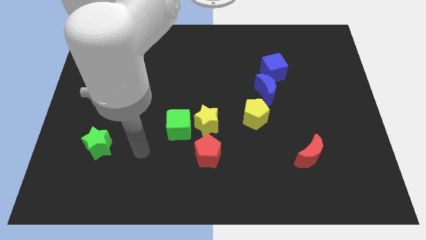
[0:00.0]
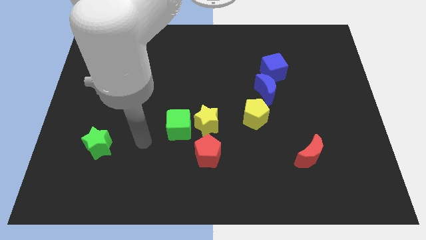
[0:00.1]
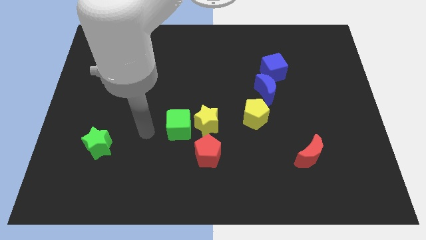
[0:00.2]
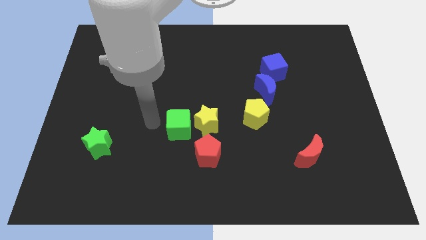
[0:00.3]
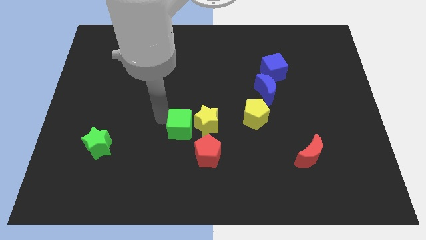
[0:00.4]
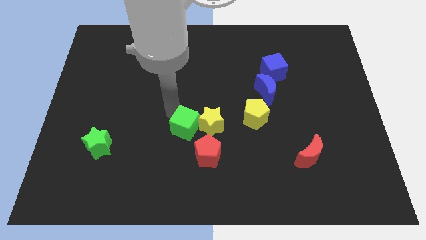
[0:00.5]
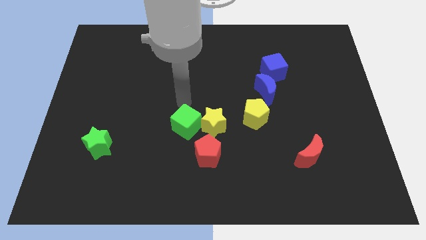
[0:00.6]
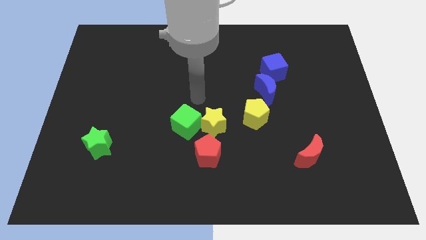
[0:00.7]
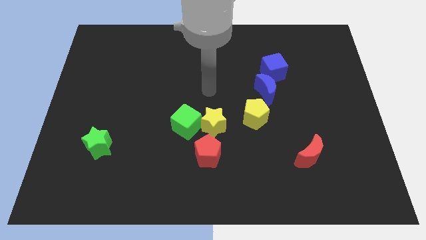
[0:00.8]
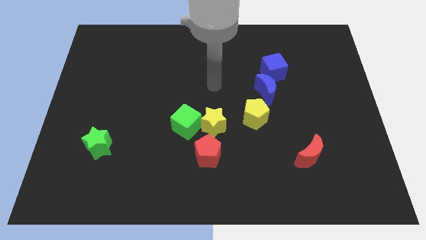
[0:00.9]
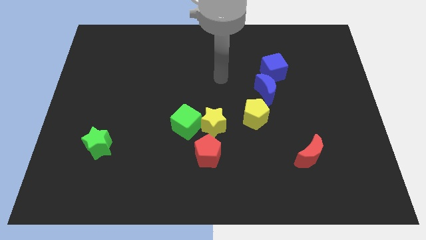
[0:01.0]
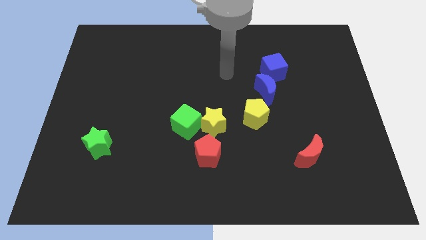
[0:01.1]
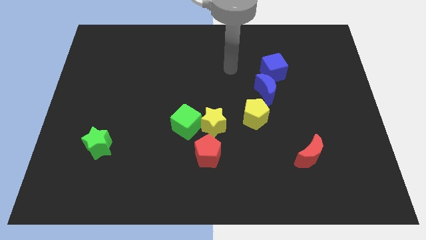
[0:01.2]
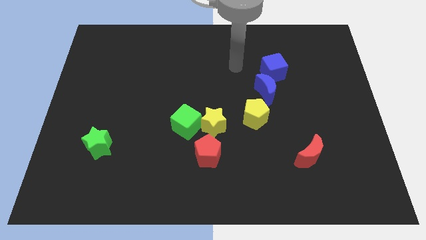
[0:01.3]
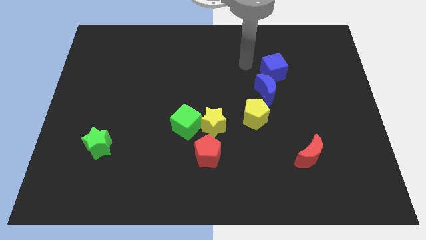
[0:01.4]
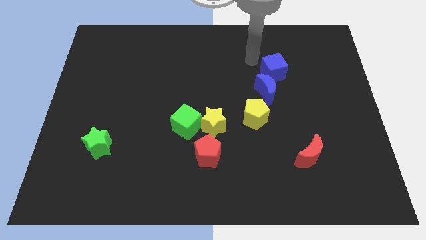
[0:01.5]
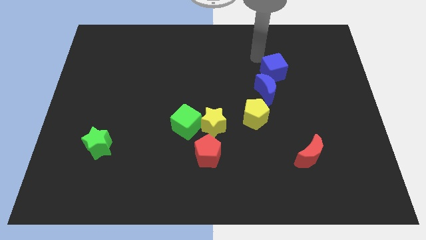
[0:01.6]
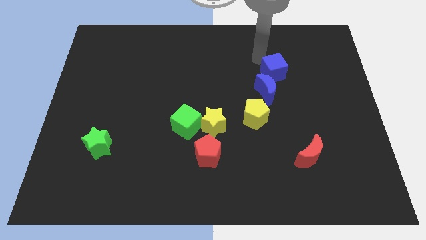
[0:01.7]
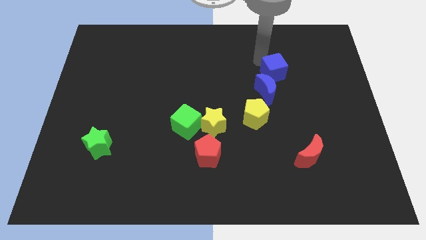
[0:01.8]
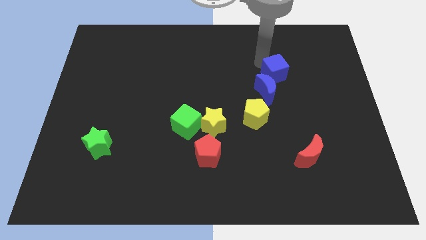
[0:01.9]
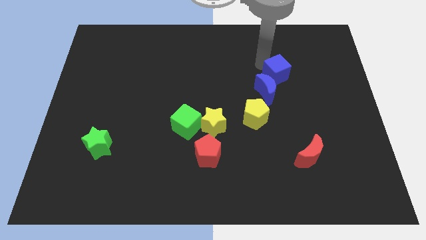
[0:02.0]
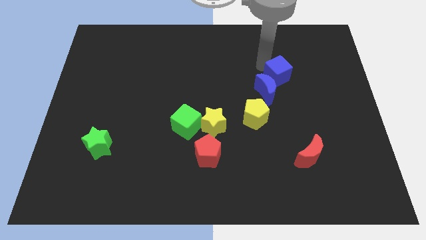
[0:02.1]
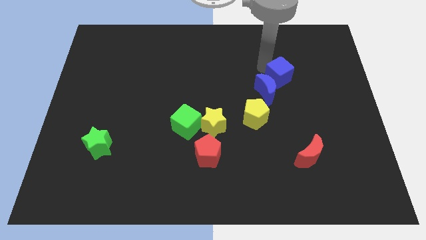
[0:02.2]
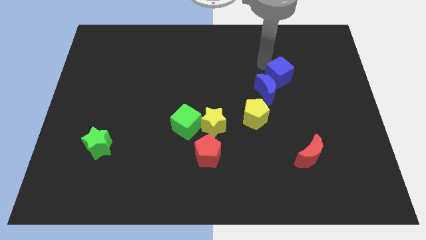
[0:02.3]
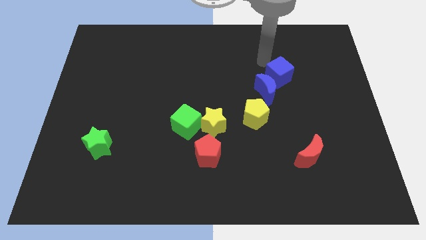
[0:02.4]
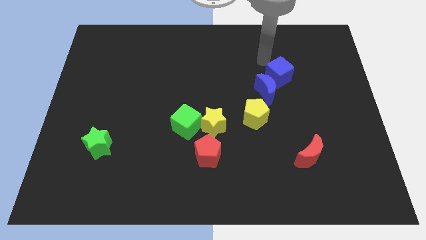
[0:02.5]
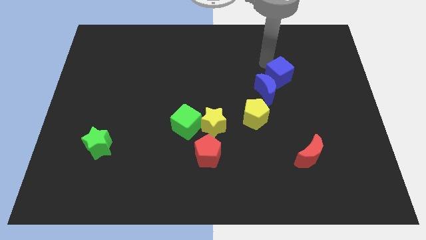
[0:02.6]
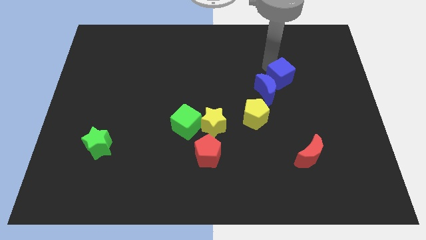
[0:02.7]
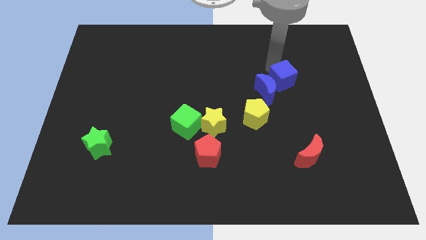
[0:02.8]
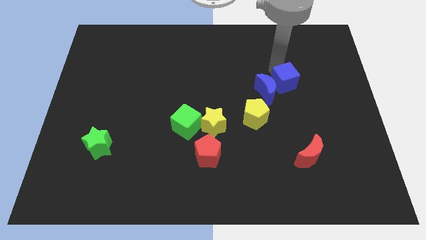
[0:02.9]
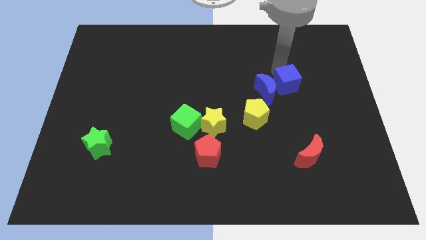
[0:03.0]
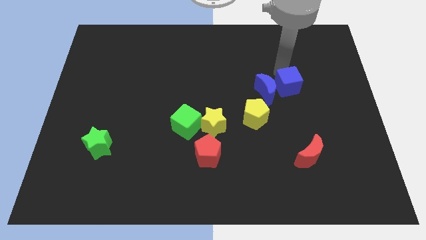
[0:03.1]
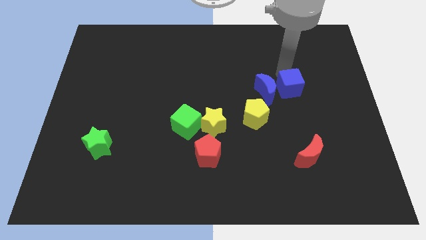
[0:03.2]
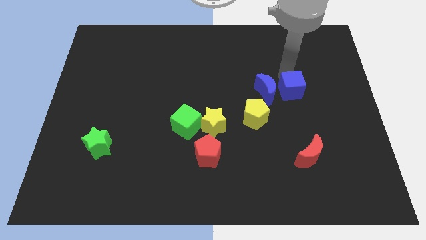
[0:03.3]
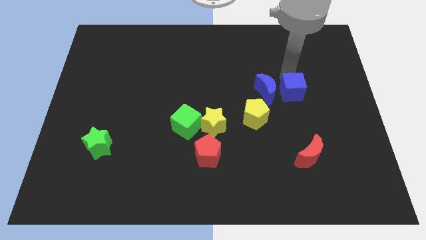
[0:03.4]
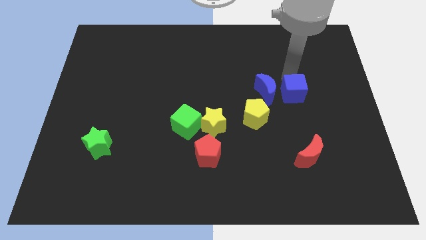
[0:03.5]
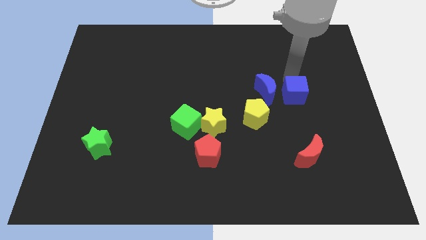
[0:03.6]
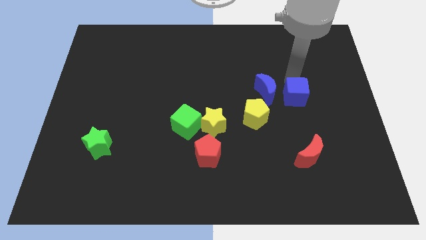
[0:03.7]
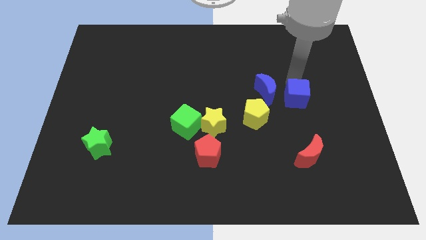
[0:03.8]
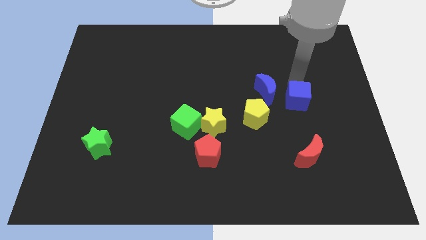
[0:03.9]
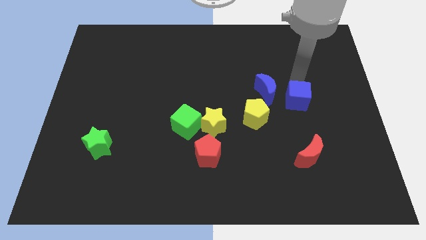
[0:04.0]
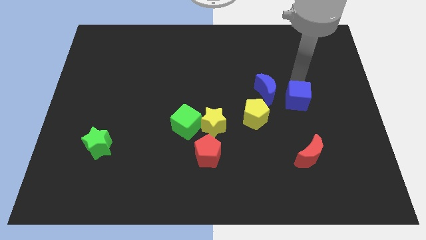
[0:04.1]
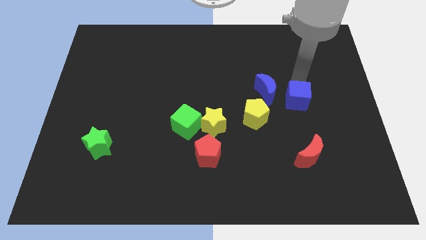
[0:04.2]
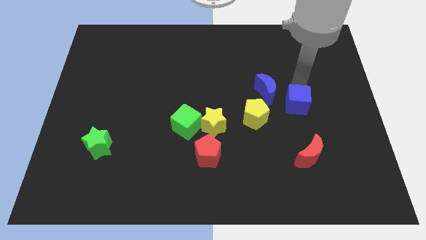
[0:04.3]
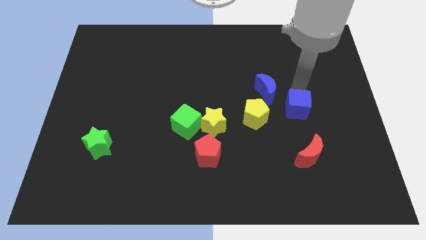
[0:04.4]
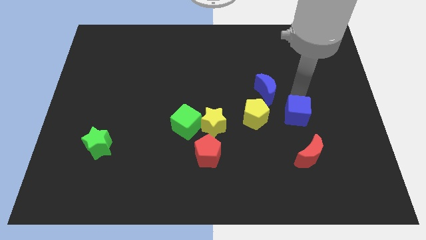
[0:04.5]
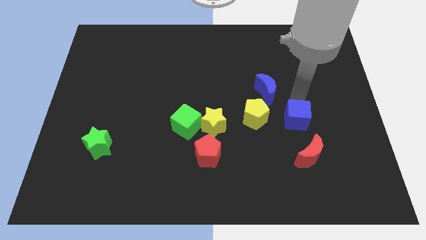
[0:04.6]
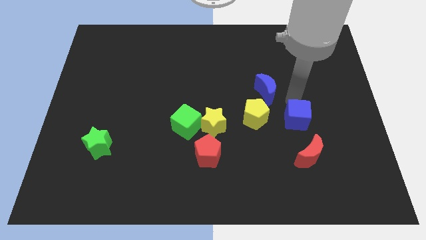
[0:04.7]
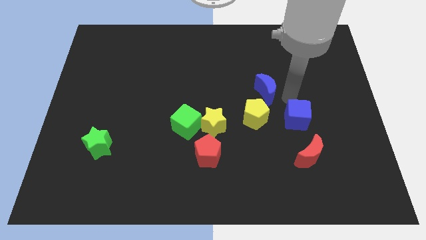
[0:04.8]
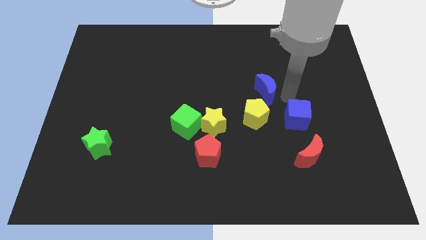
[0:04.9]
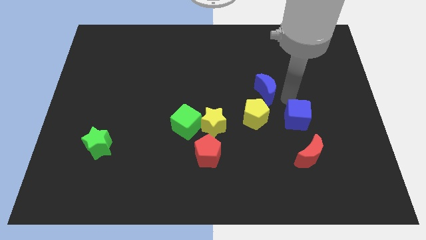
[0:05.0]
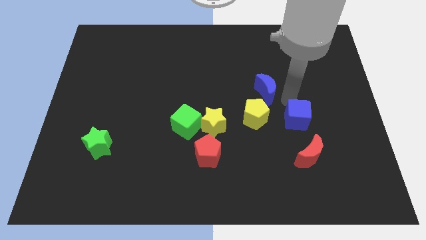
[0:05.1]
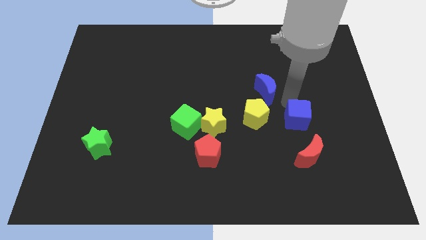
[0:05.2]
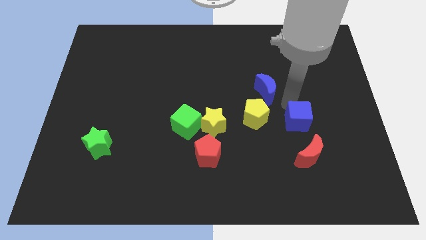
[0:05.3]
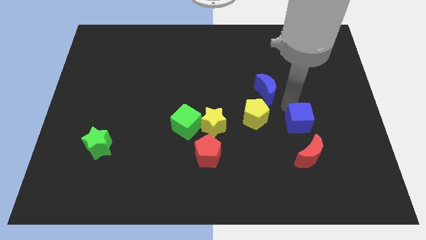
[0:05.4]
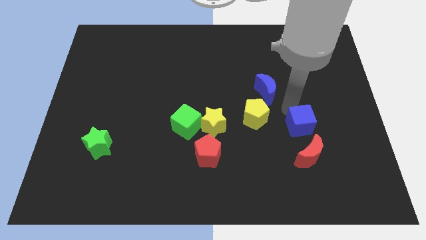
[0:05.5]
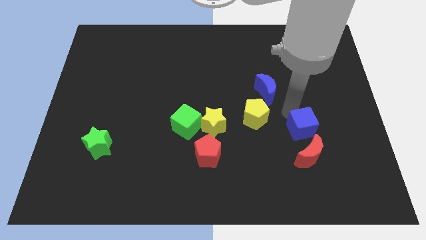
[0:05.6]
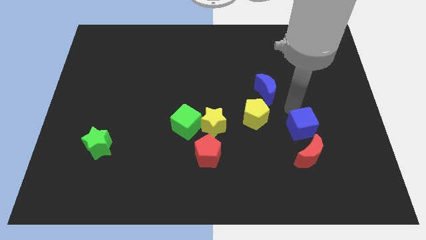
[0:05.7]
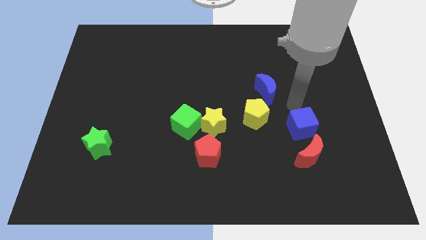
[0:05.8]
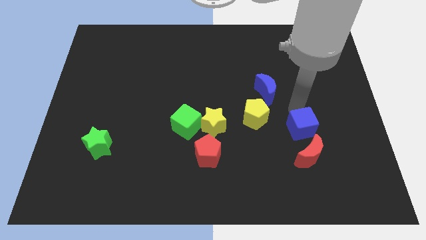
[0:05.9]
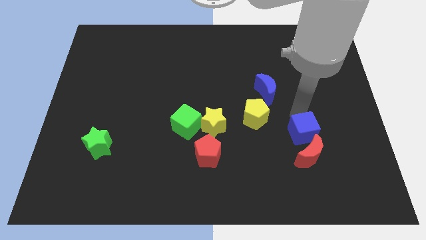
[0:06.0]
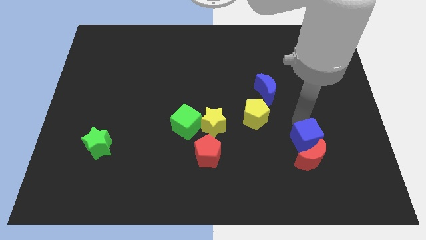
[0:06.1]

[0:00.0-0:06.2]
push the blue cube close to the red moon

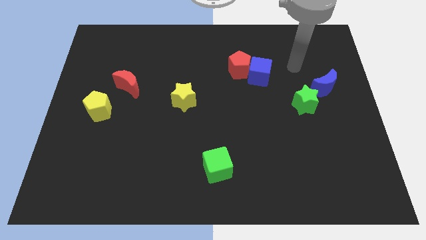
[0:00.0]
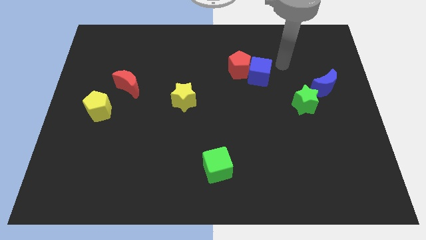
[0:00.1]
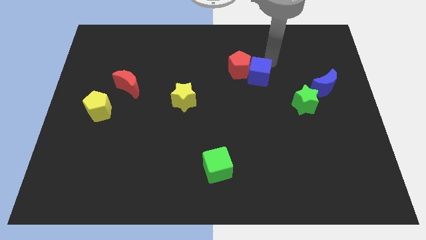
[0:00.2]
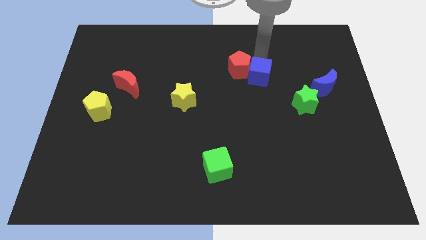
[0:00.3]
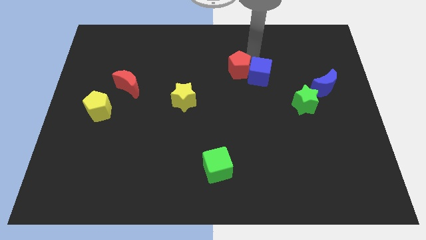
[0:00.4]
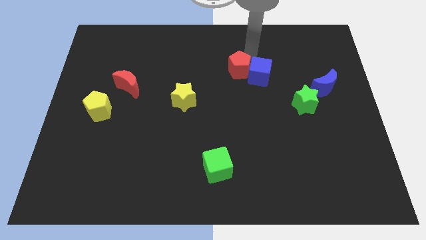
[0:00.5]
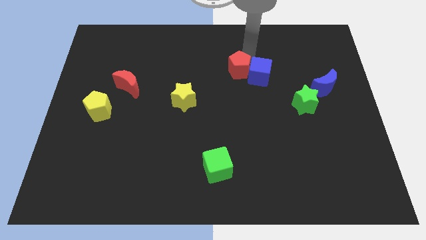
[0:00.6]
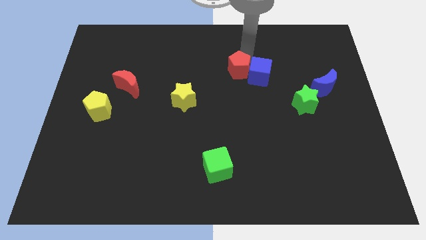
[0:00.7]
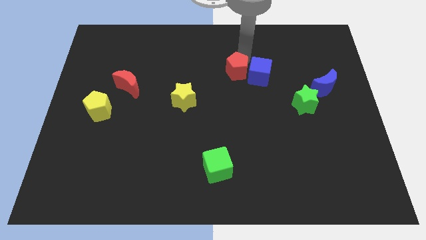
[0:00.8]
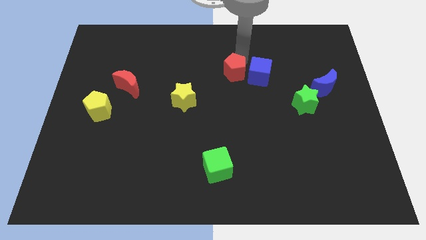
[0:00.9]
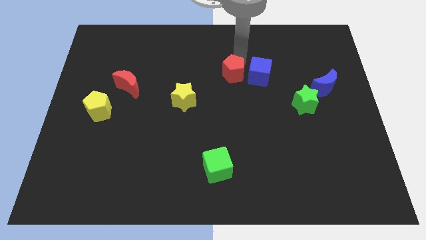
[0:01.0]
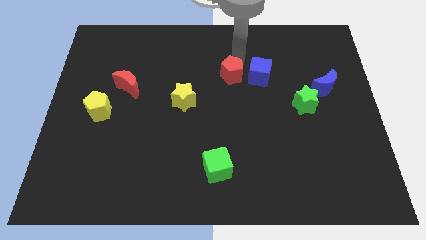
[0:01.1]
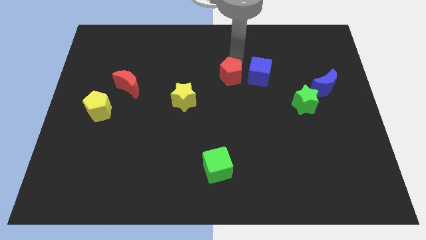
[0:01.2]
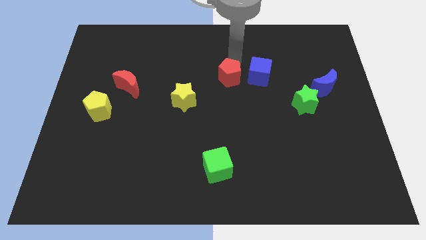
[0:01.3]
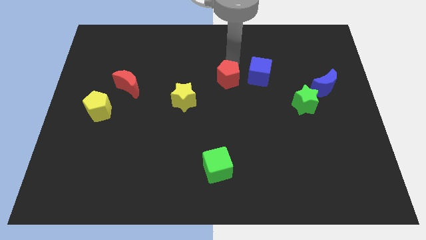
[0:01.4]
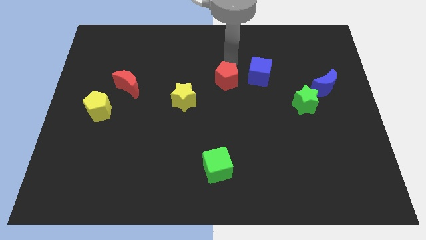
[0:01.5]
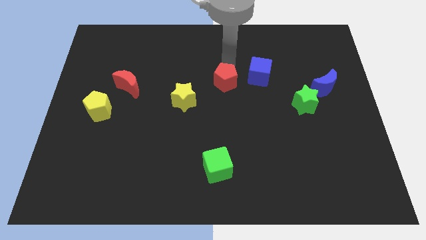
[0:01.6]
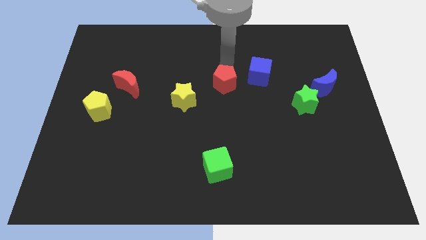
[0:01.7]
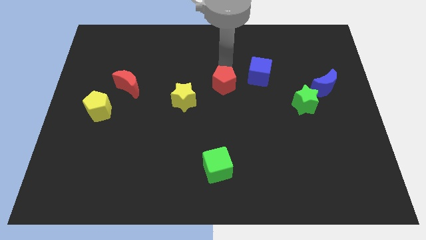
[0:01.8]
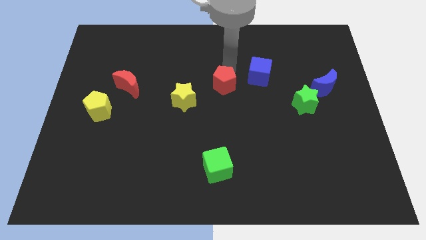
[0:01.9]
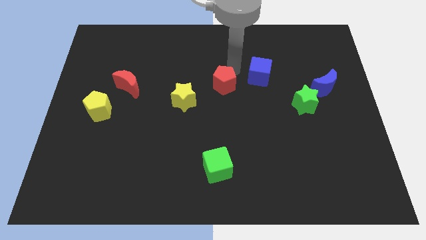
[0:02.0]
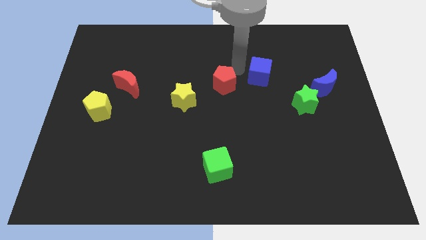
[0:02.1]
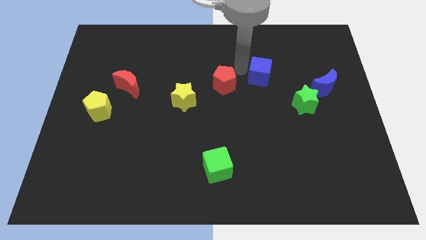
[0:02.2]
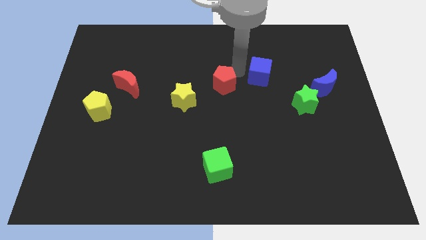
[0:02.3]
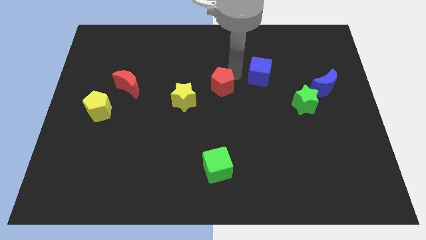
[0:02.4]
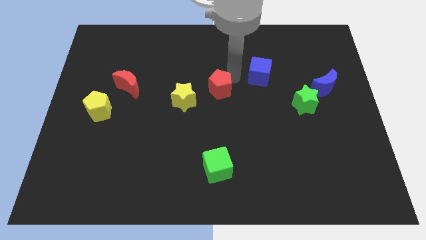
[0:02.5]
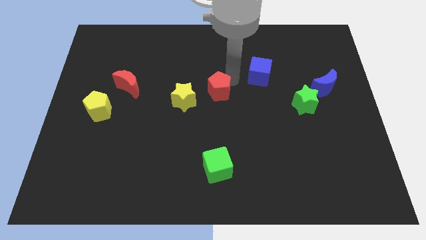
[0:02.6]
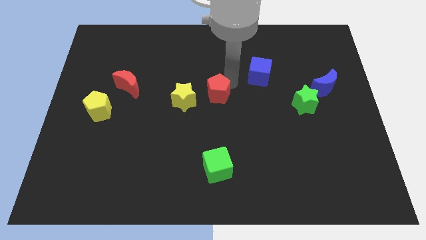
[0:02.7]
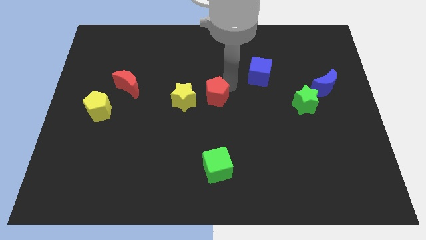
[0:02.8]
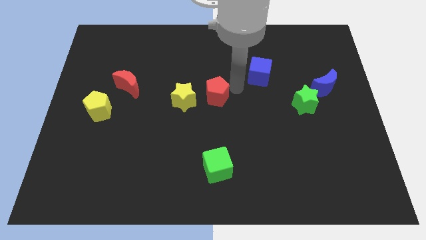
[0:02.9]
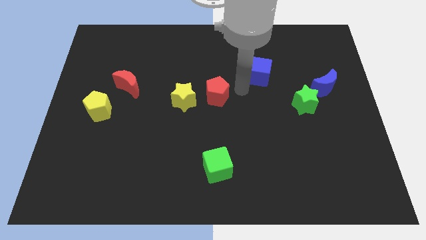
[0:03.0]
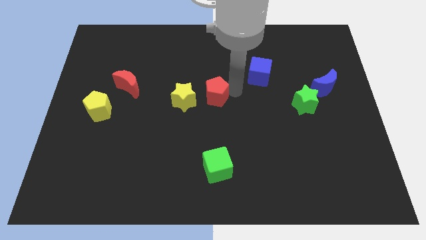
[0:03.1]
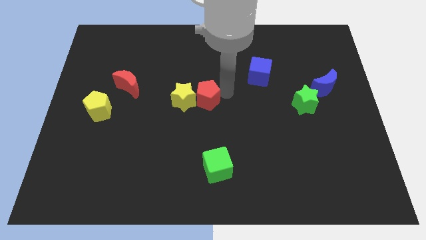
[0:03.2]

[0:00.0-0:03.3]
move the red pentagon to the yellow star
